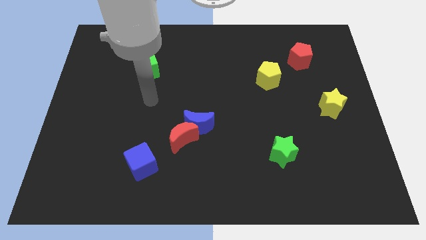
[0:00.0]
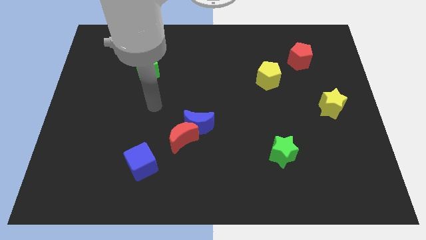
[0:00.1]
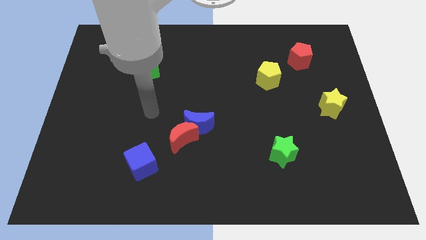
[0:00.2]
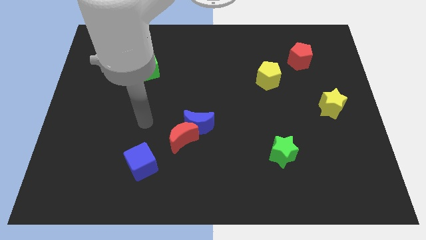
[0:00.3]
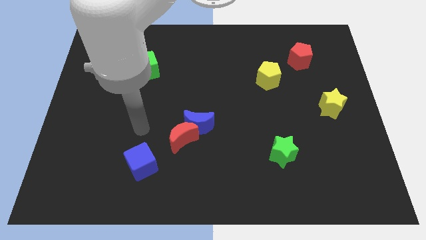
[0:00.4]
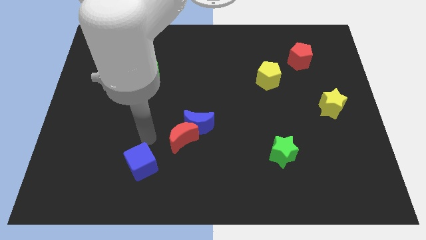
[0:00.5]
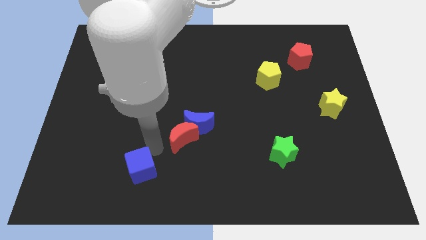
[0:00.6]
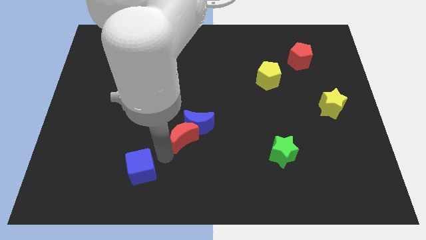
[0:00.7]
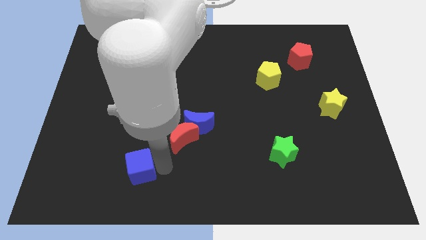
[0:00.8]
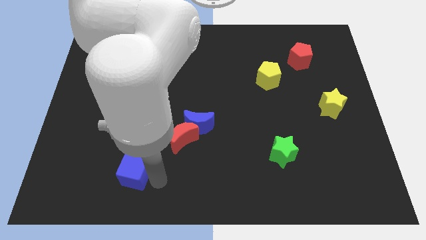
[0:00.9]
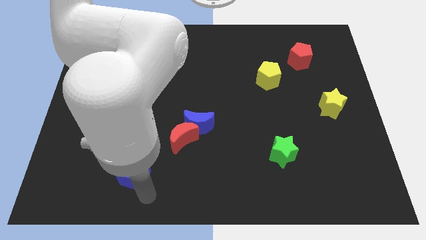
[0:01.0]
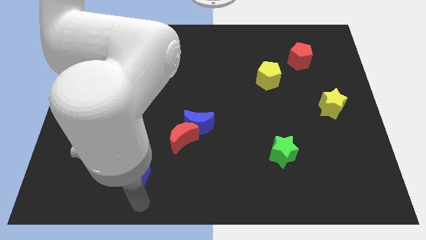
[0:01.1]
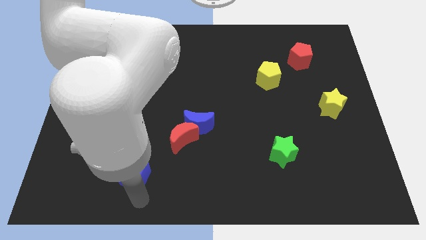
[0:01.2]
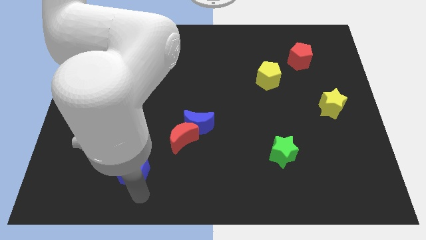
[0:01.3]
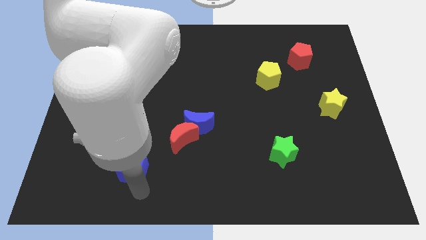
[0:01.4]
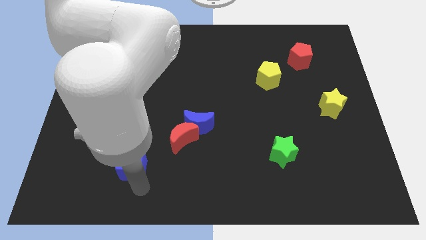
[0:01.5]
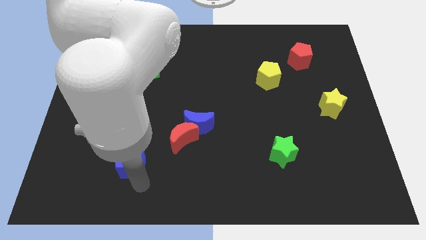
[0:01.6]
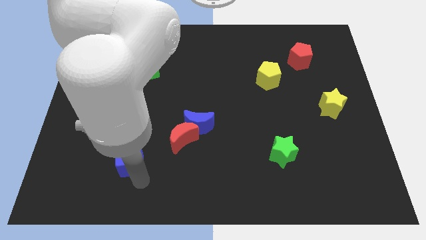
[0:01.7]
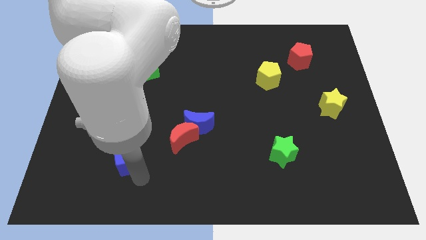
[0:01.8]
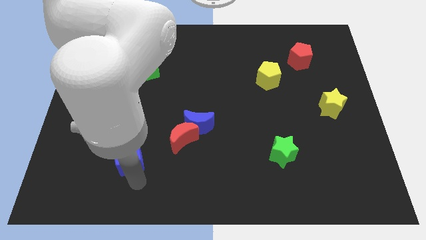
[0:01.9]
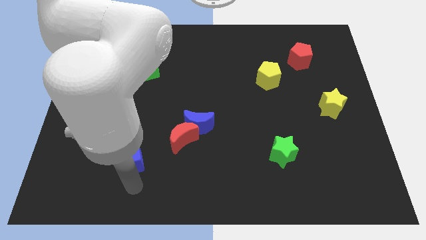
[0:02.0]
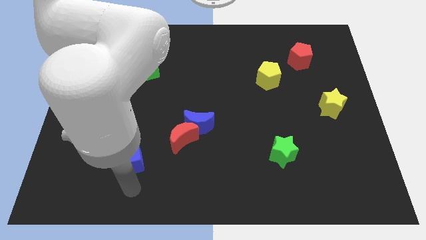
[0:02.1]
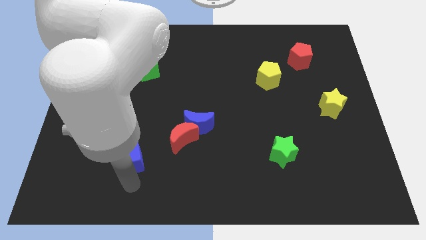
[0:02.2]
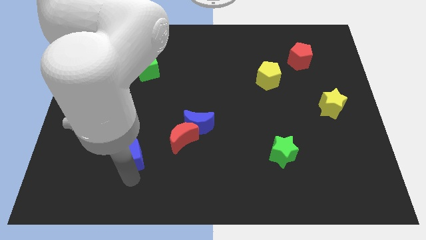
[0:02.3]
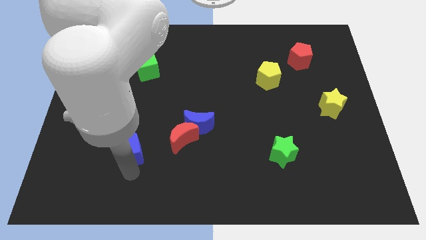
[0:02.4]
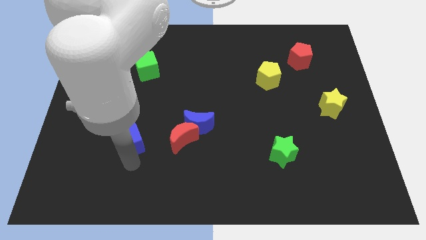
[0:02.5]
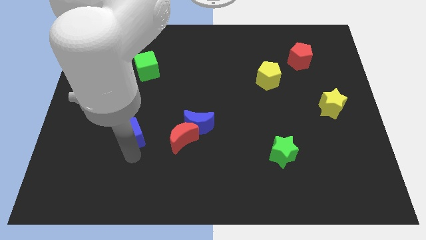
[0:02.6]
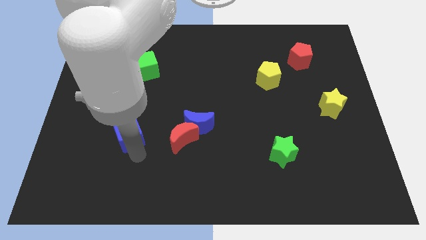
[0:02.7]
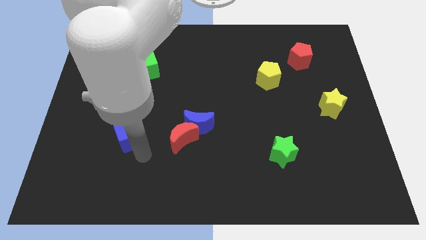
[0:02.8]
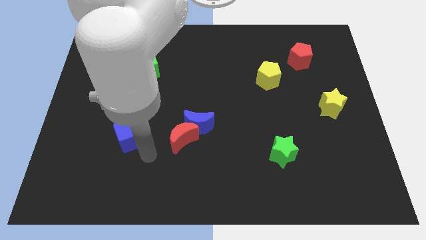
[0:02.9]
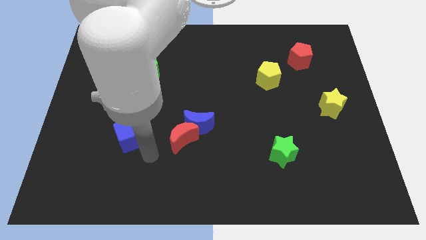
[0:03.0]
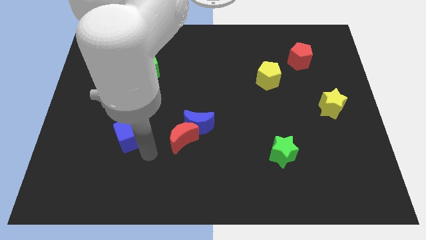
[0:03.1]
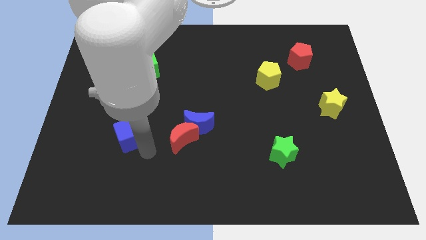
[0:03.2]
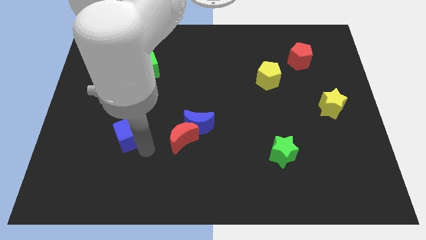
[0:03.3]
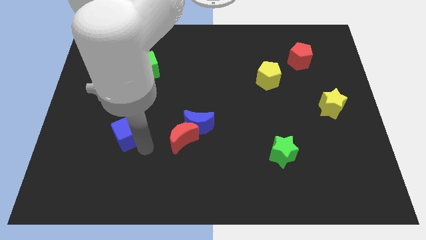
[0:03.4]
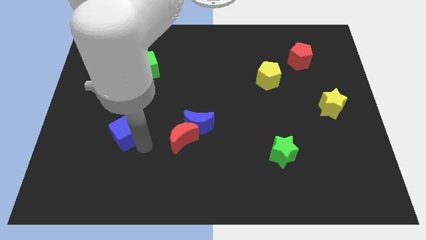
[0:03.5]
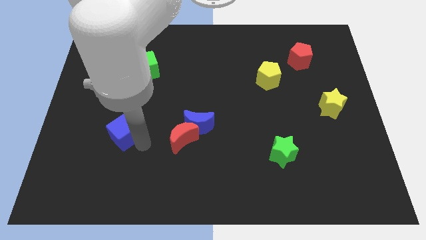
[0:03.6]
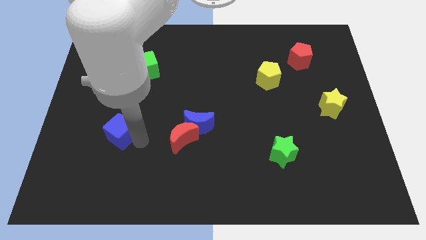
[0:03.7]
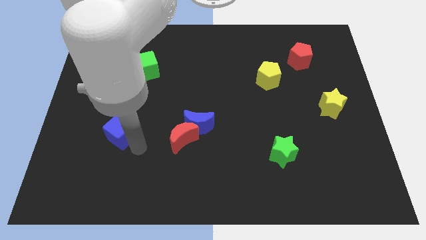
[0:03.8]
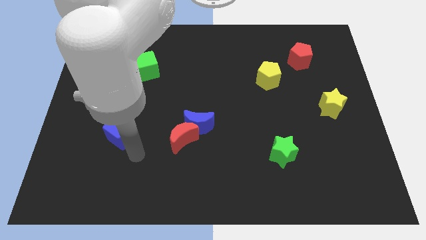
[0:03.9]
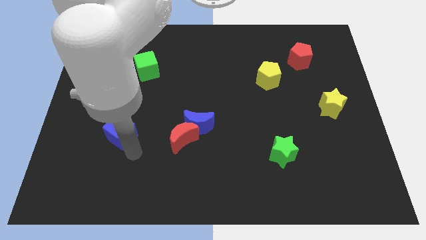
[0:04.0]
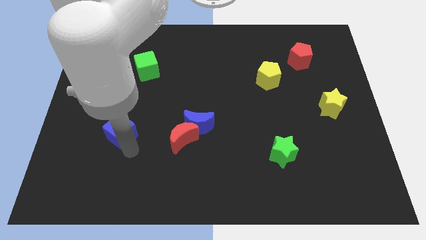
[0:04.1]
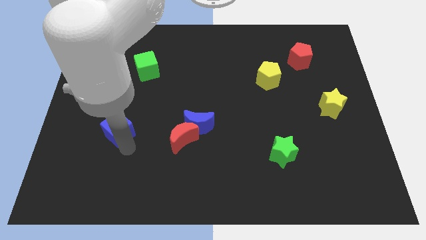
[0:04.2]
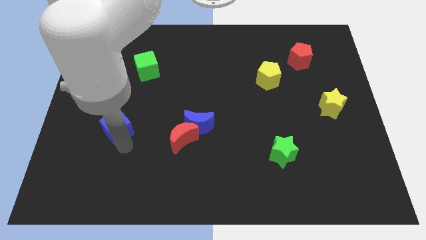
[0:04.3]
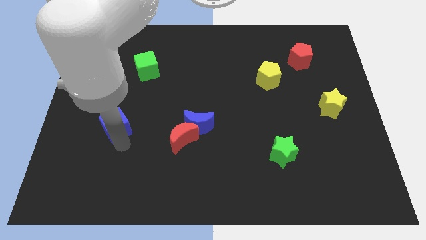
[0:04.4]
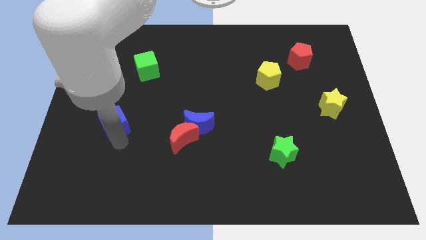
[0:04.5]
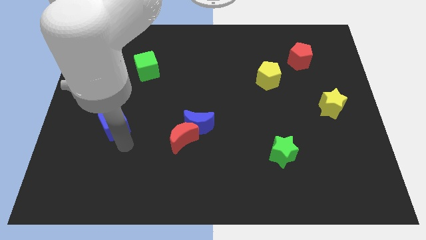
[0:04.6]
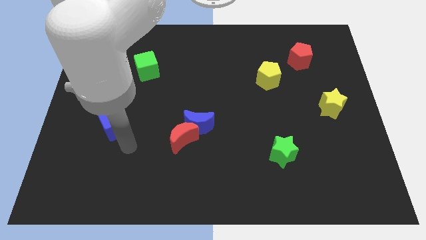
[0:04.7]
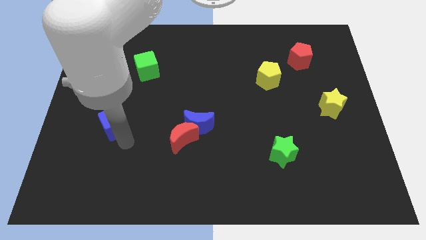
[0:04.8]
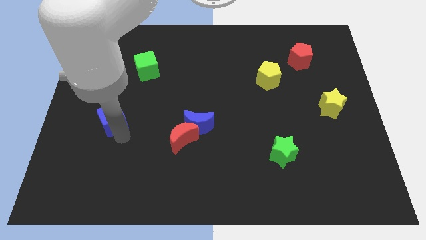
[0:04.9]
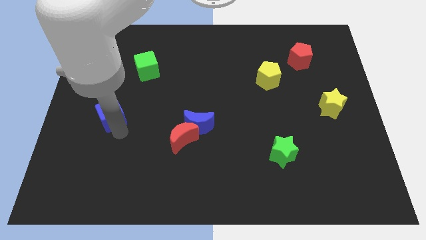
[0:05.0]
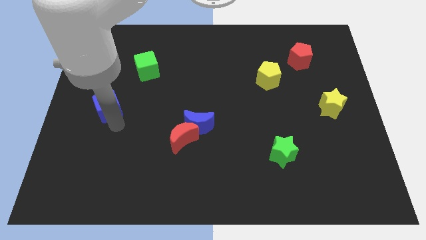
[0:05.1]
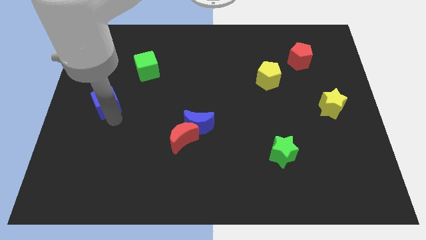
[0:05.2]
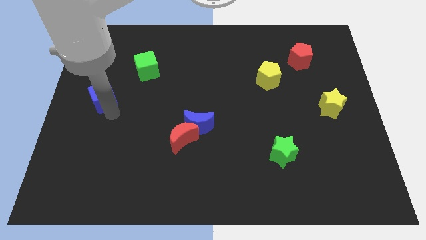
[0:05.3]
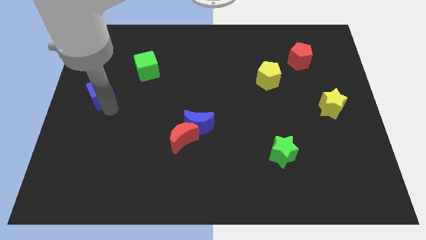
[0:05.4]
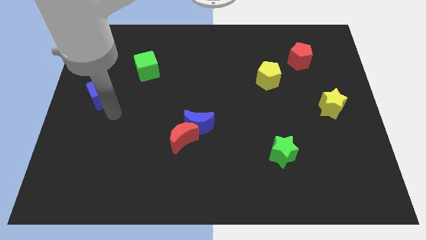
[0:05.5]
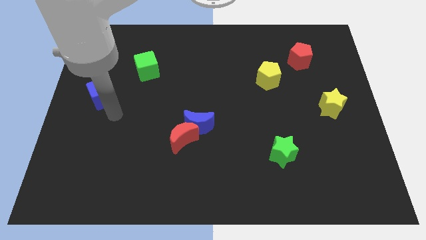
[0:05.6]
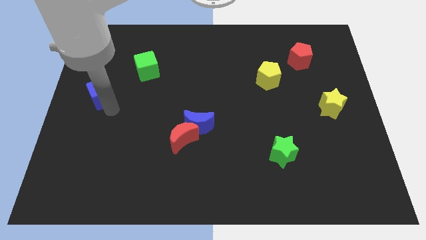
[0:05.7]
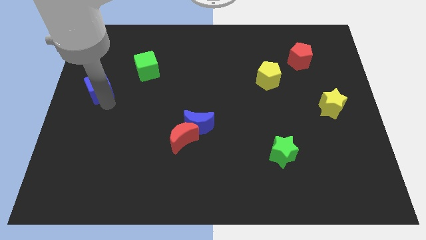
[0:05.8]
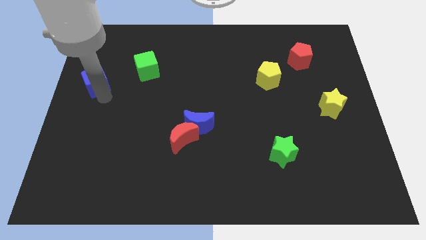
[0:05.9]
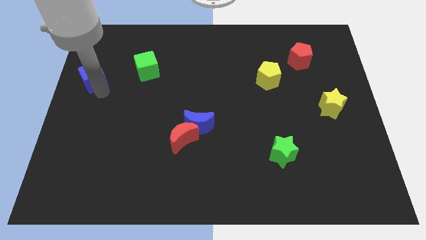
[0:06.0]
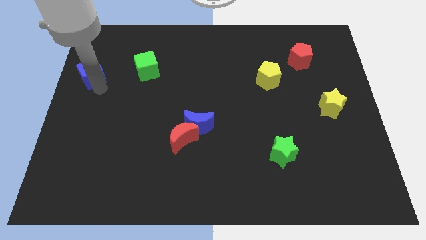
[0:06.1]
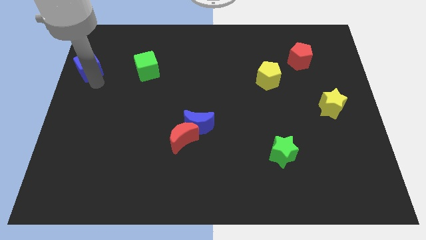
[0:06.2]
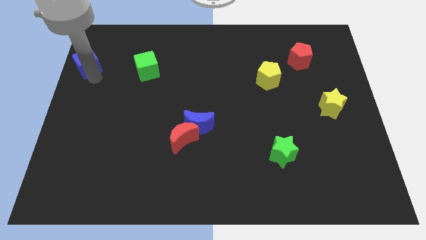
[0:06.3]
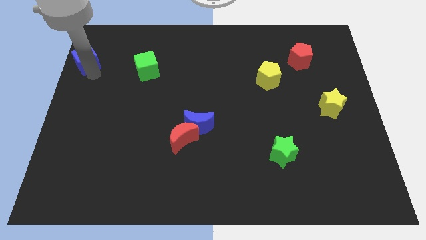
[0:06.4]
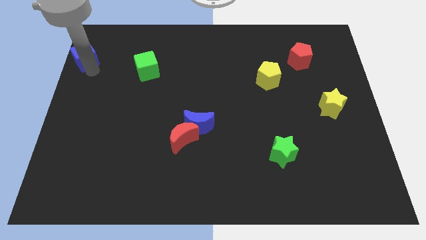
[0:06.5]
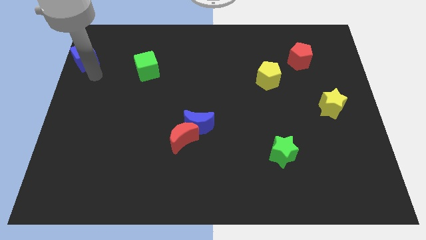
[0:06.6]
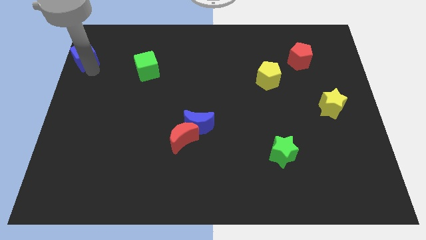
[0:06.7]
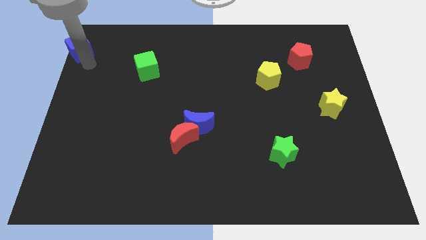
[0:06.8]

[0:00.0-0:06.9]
move the blue cube to the top left of the board
